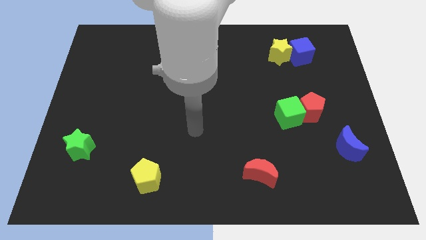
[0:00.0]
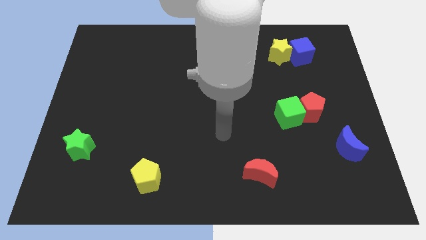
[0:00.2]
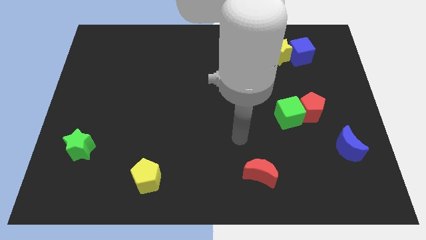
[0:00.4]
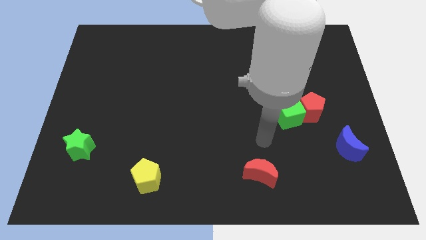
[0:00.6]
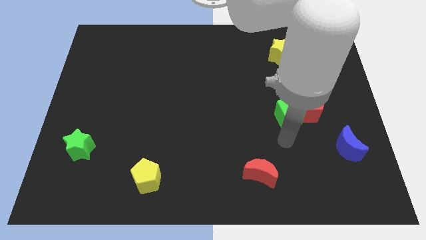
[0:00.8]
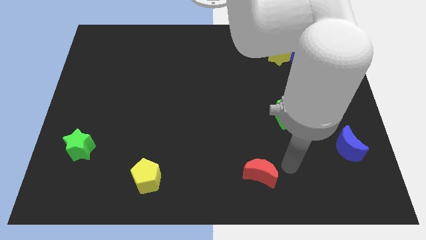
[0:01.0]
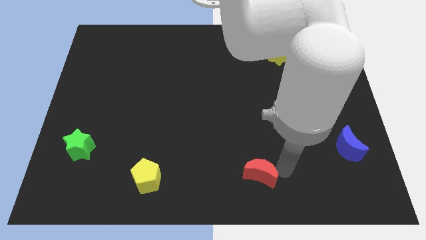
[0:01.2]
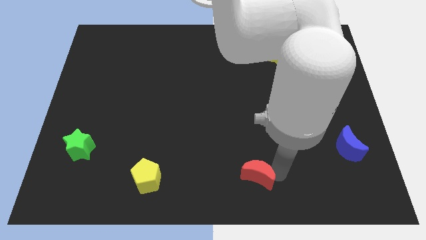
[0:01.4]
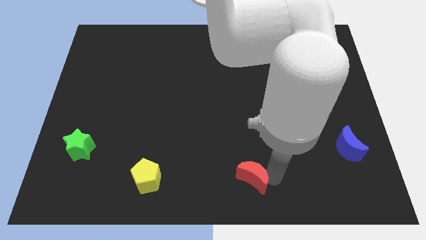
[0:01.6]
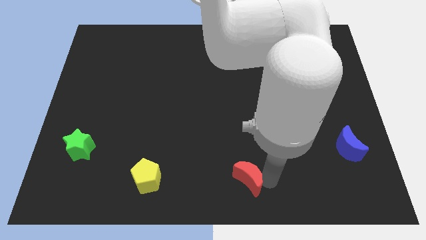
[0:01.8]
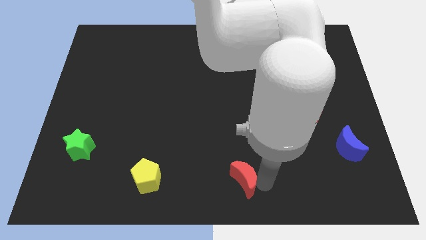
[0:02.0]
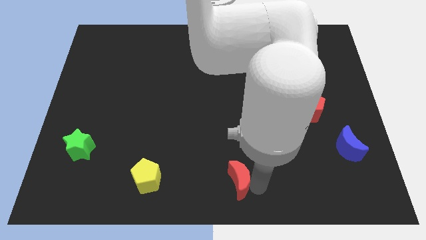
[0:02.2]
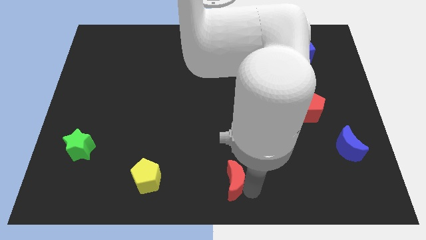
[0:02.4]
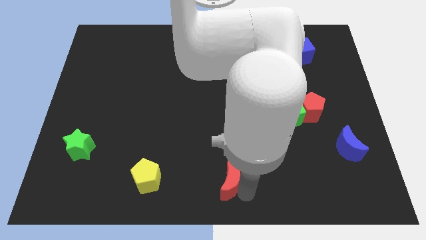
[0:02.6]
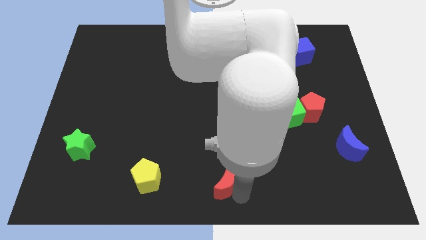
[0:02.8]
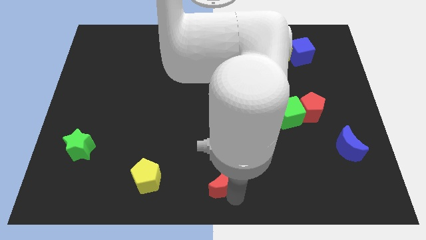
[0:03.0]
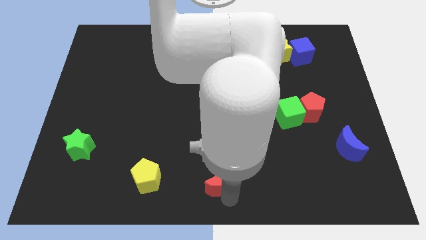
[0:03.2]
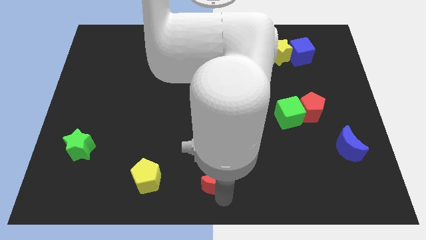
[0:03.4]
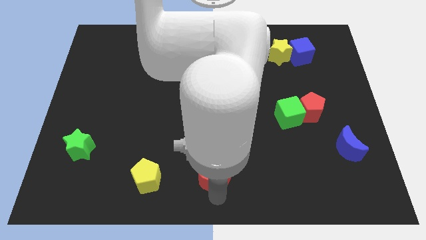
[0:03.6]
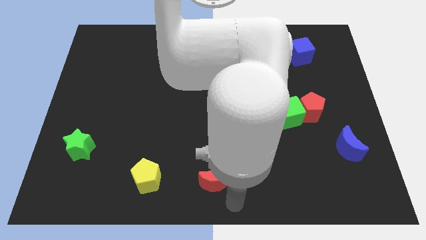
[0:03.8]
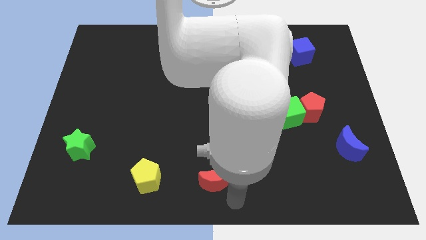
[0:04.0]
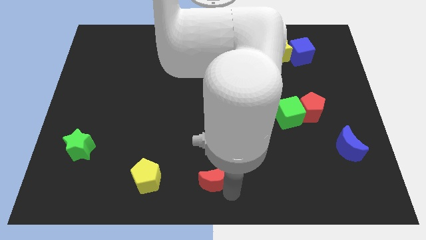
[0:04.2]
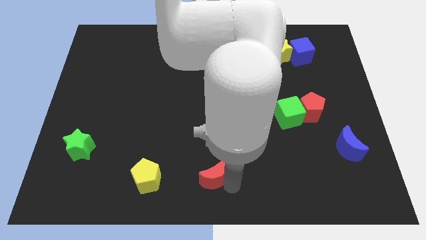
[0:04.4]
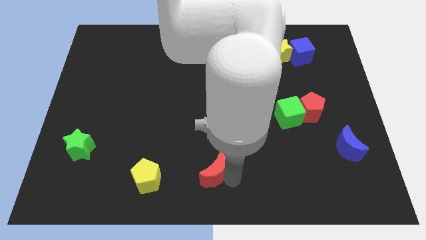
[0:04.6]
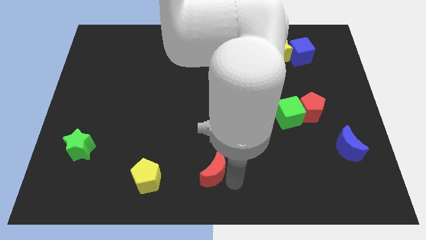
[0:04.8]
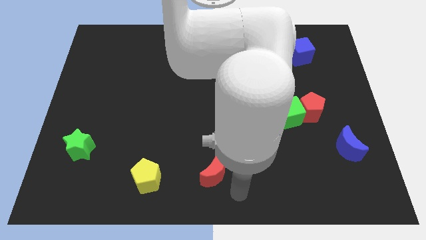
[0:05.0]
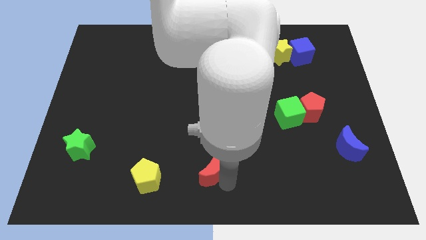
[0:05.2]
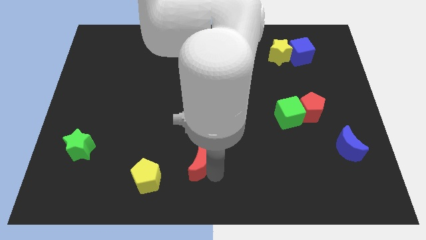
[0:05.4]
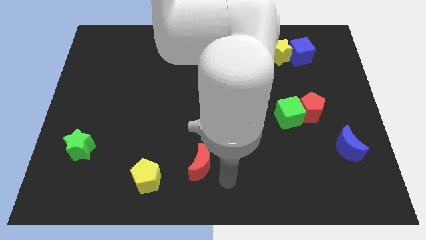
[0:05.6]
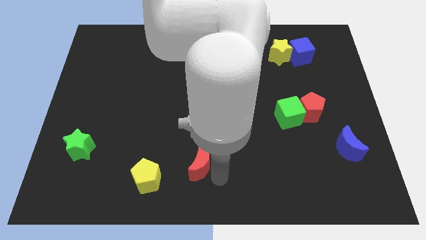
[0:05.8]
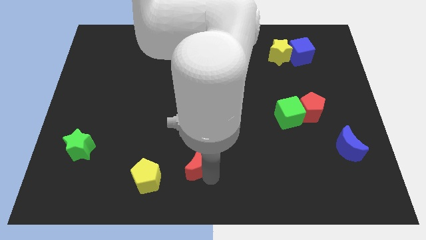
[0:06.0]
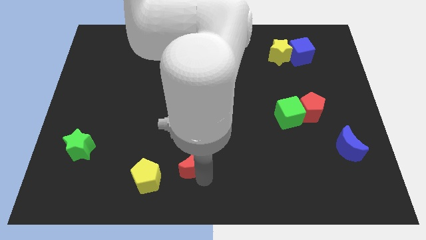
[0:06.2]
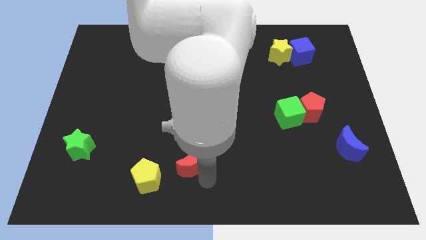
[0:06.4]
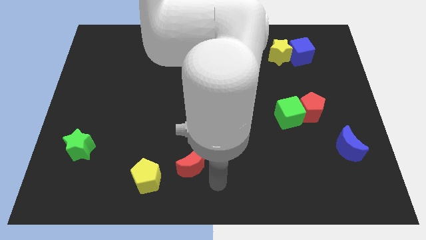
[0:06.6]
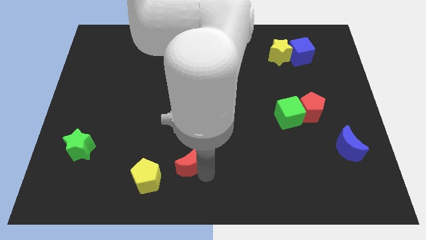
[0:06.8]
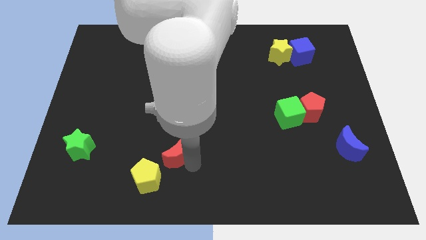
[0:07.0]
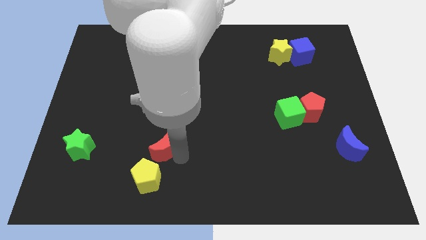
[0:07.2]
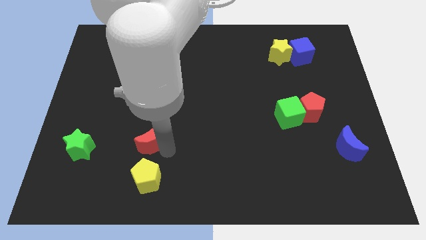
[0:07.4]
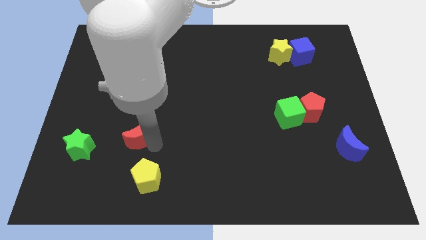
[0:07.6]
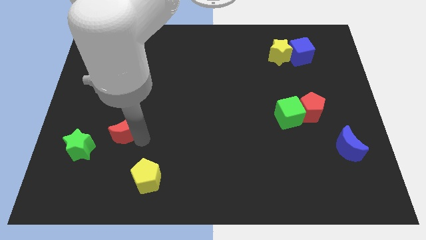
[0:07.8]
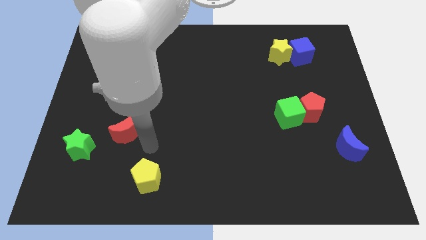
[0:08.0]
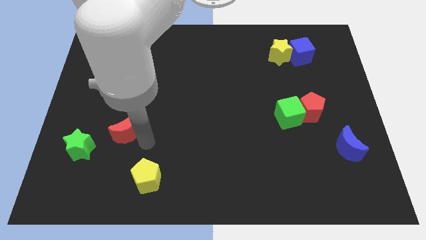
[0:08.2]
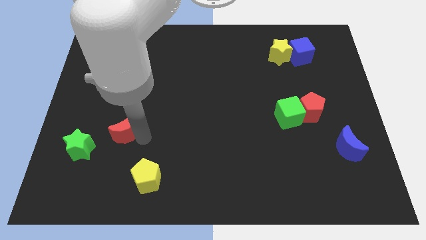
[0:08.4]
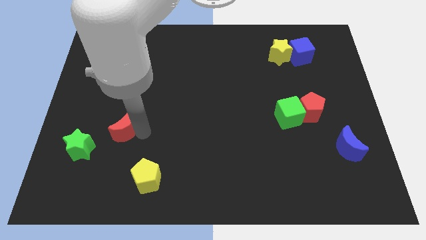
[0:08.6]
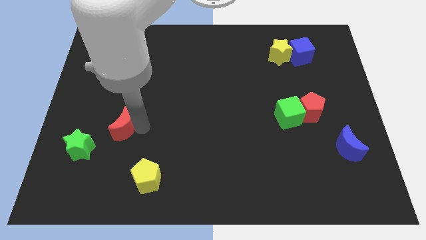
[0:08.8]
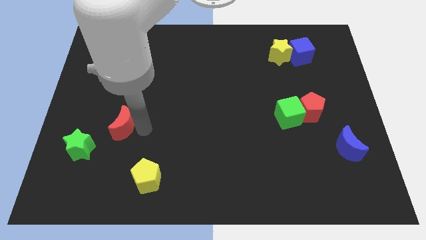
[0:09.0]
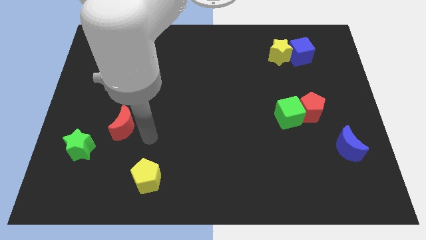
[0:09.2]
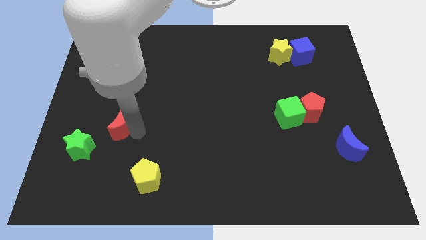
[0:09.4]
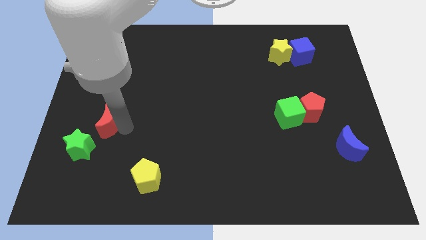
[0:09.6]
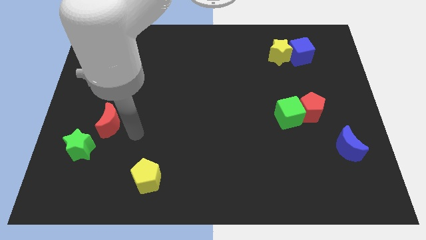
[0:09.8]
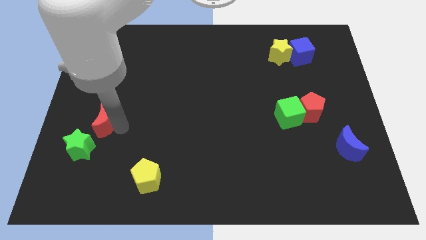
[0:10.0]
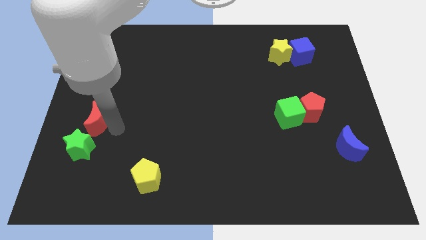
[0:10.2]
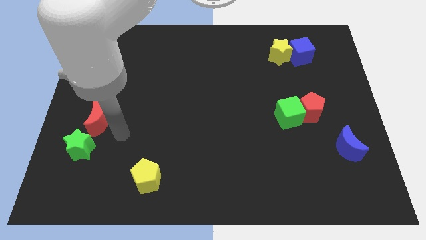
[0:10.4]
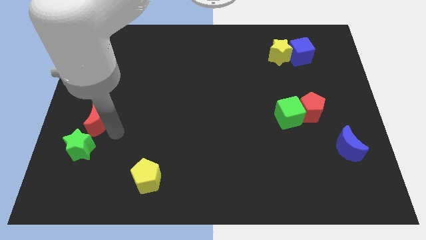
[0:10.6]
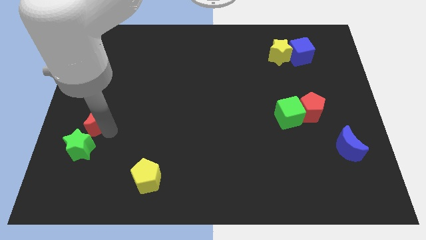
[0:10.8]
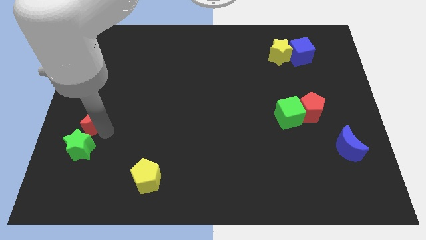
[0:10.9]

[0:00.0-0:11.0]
put the red moon to the left side of the board

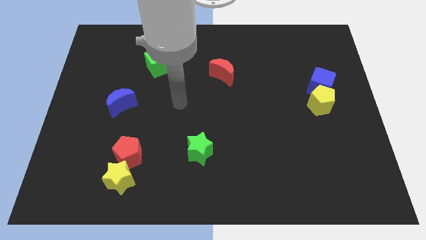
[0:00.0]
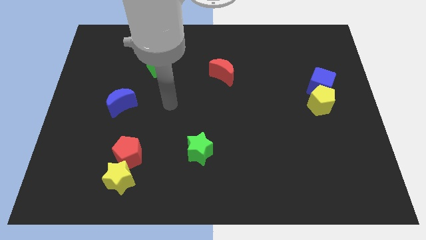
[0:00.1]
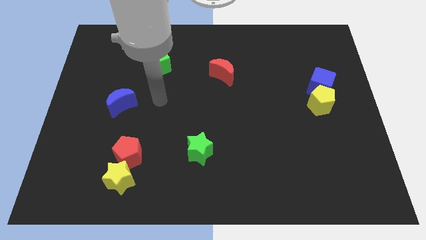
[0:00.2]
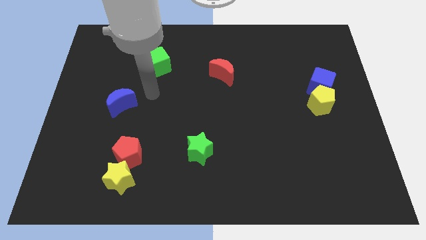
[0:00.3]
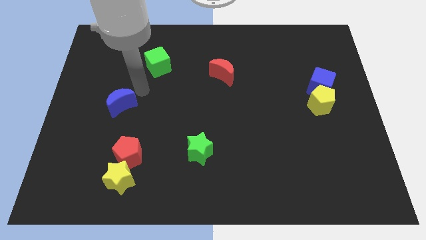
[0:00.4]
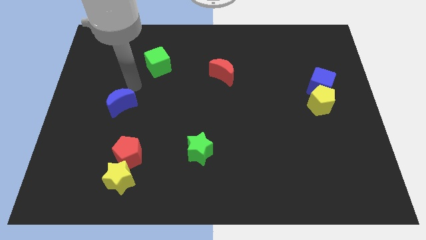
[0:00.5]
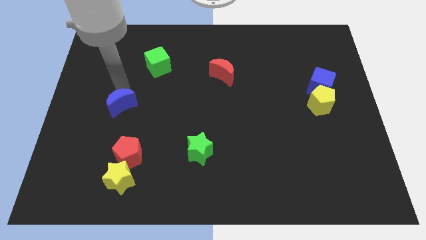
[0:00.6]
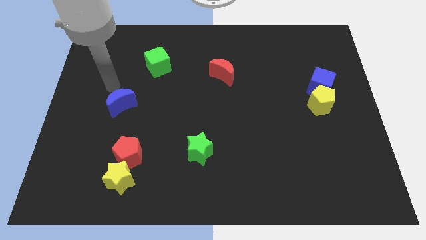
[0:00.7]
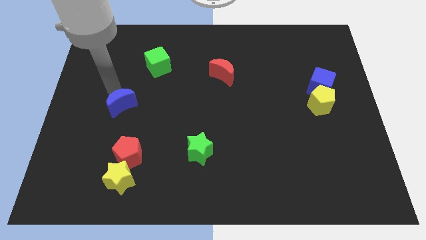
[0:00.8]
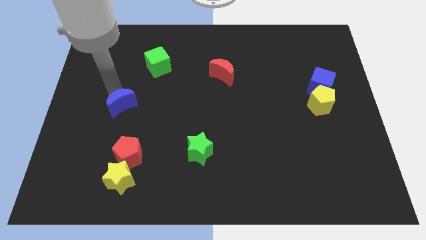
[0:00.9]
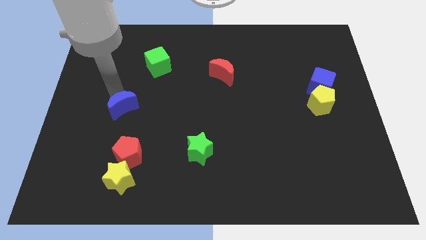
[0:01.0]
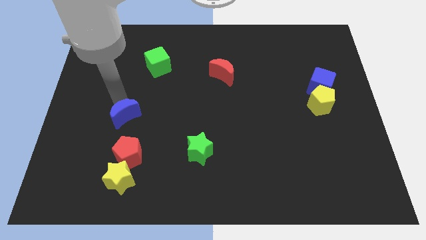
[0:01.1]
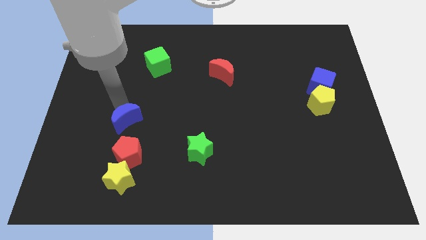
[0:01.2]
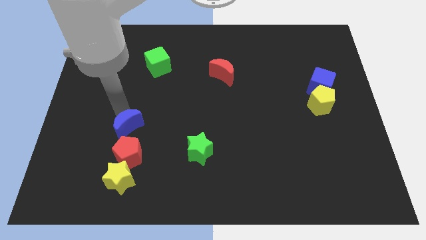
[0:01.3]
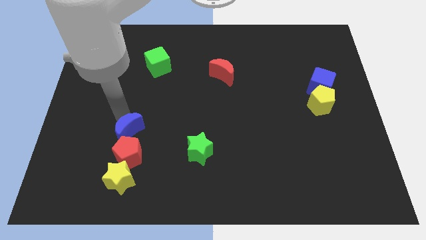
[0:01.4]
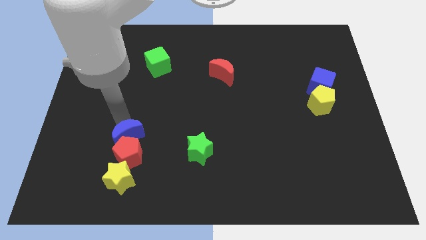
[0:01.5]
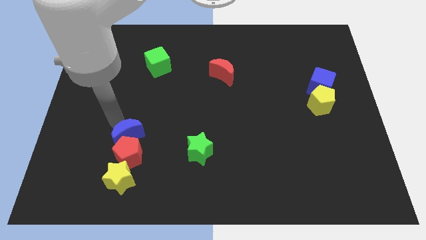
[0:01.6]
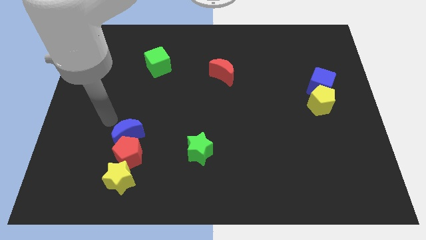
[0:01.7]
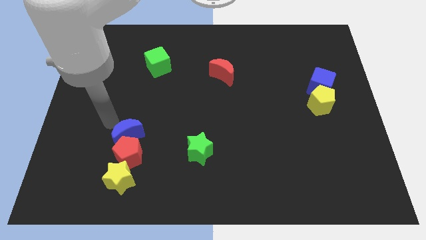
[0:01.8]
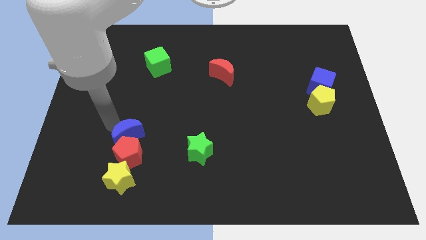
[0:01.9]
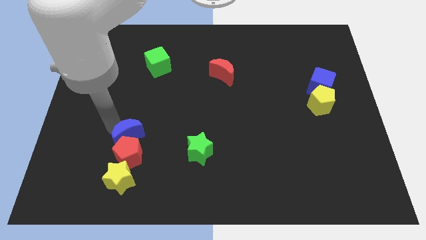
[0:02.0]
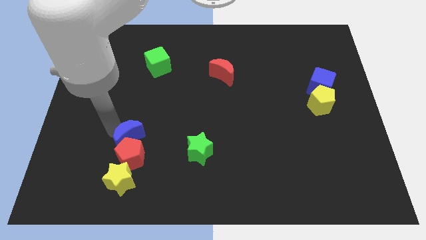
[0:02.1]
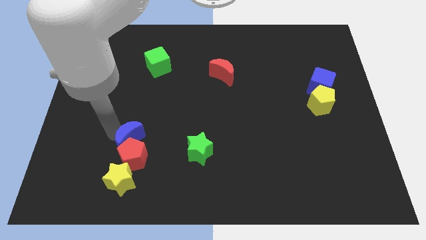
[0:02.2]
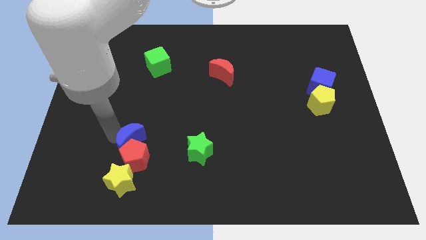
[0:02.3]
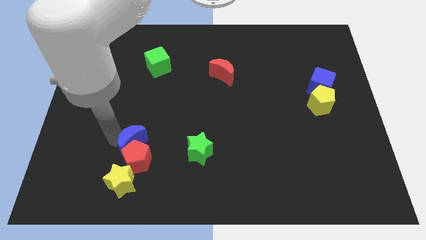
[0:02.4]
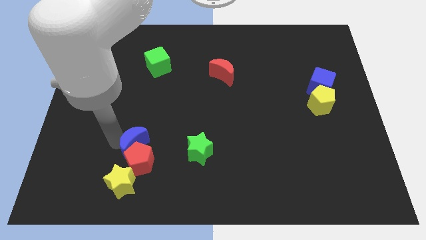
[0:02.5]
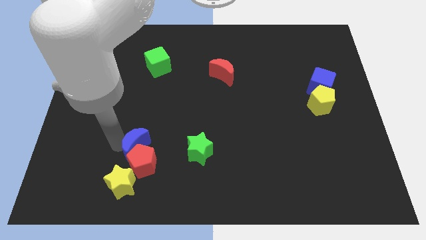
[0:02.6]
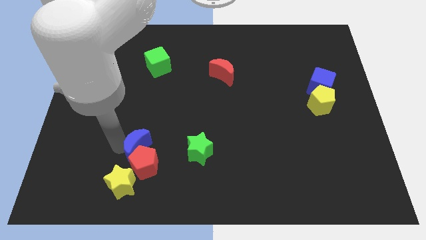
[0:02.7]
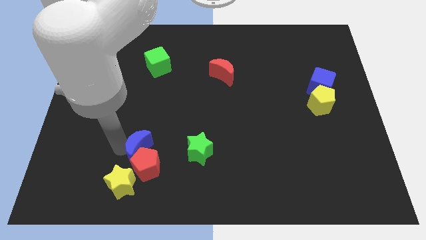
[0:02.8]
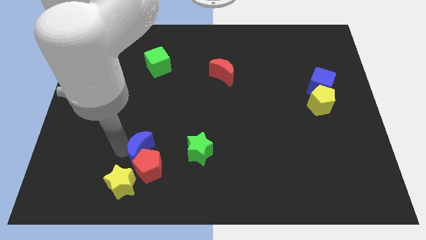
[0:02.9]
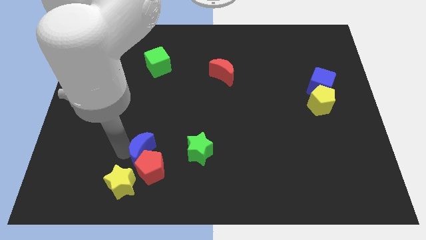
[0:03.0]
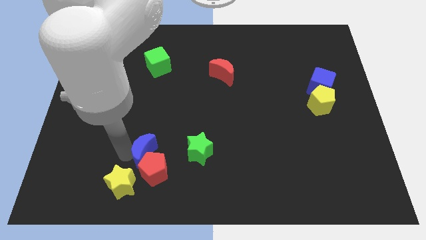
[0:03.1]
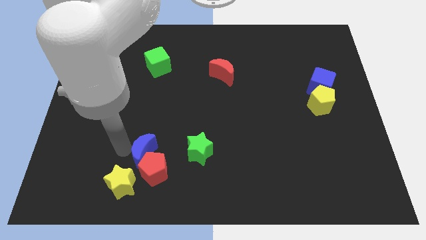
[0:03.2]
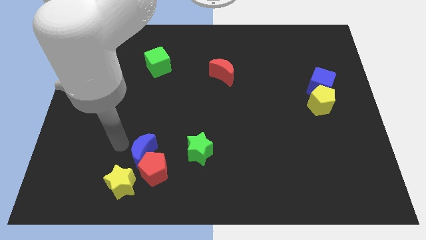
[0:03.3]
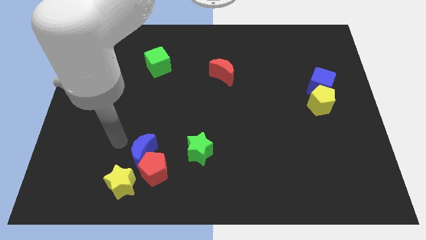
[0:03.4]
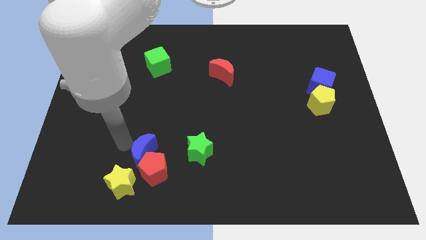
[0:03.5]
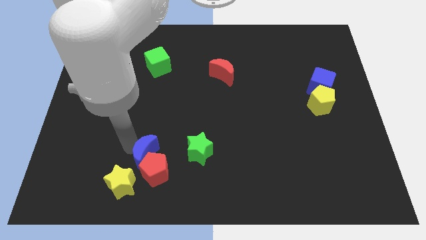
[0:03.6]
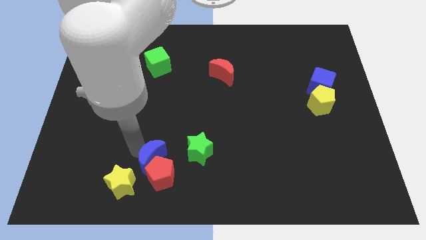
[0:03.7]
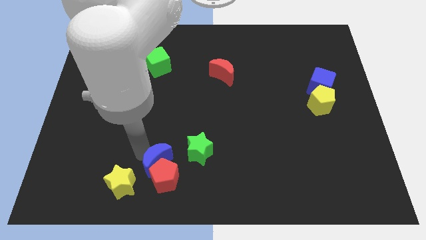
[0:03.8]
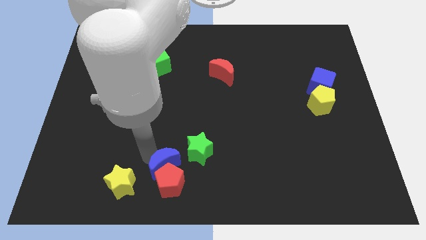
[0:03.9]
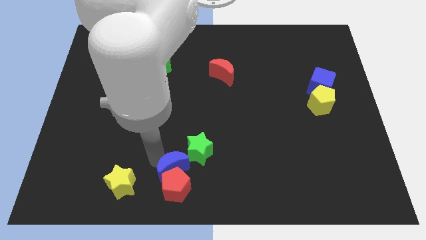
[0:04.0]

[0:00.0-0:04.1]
move the blue moon to the bottom
